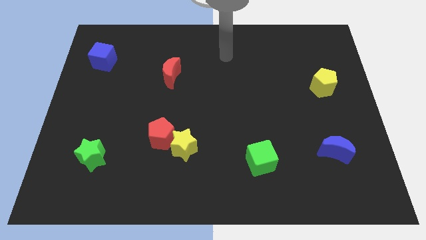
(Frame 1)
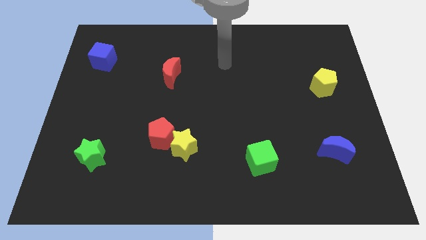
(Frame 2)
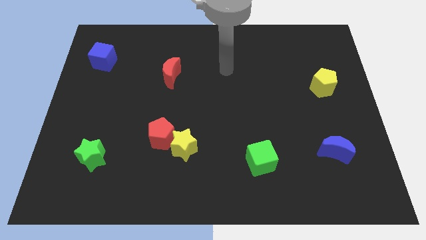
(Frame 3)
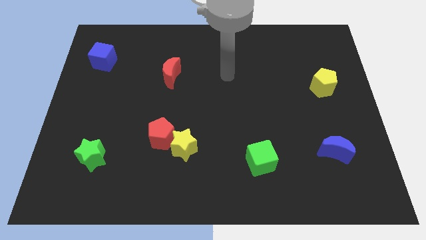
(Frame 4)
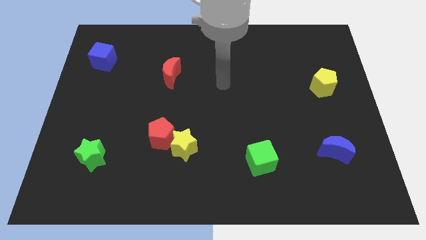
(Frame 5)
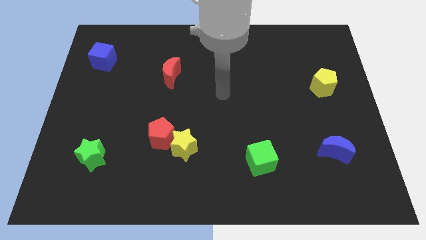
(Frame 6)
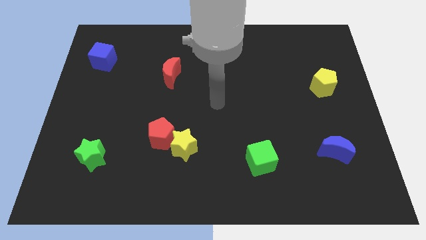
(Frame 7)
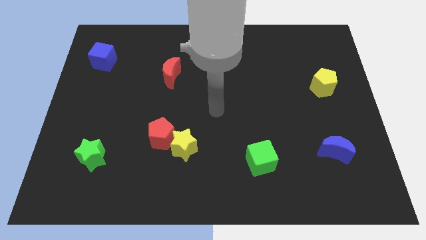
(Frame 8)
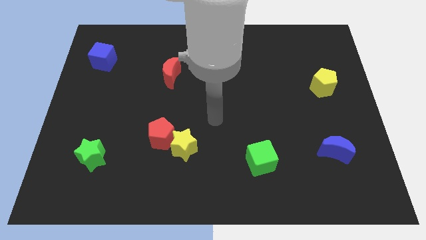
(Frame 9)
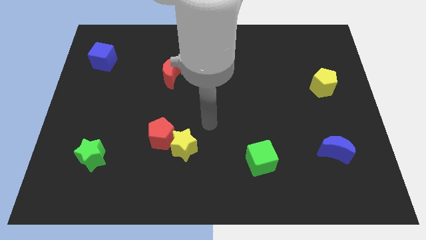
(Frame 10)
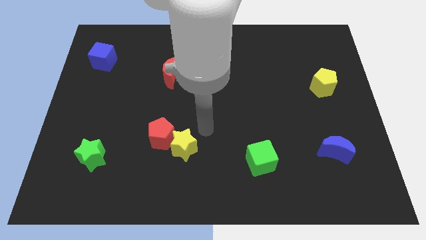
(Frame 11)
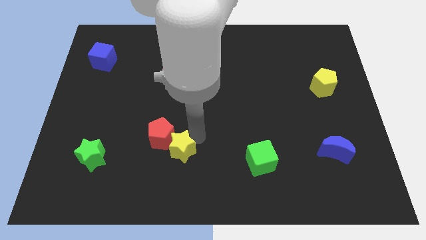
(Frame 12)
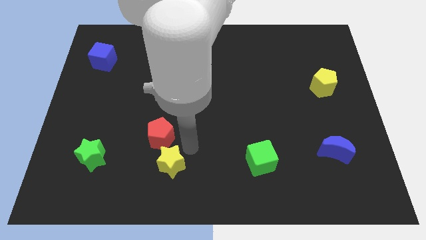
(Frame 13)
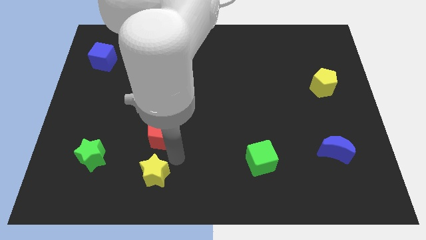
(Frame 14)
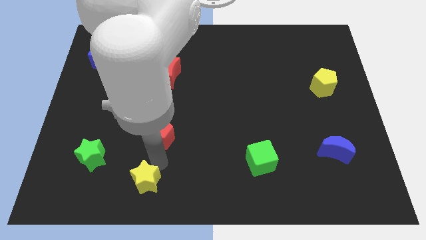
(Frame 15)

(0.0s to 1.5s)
move the red pentagon away from the yellow star

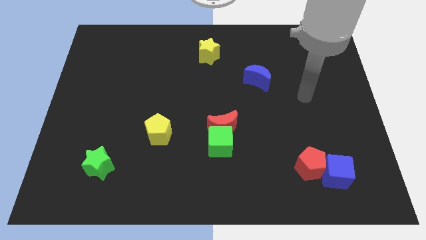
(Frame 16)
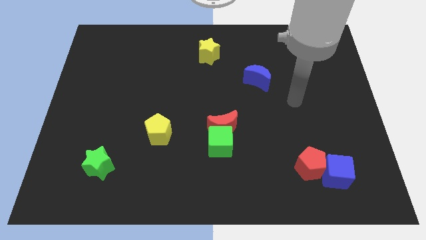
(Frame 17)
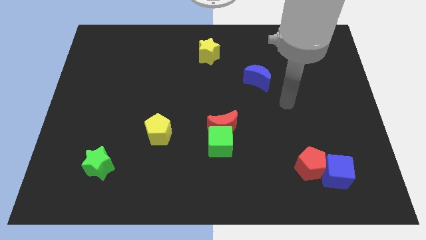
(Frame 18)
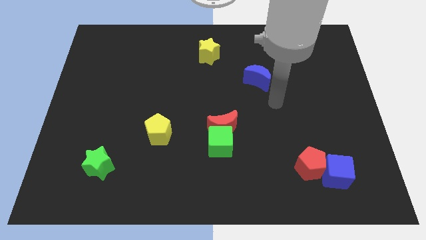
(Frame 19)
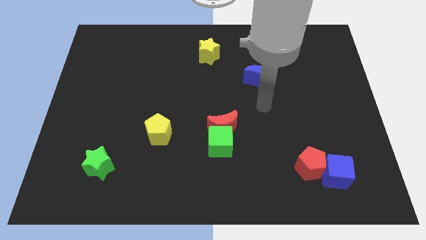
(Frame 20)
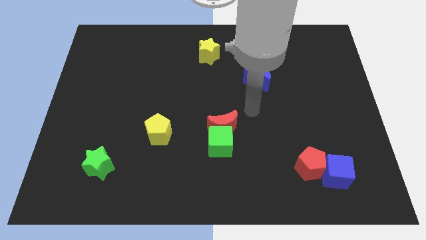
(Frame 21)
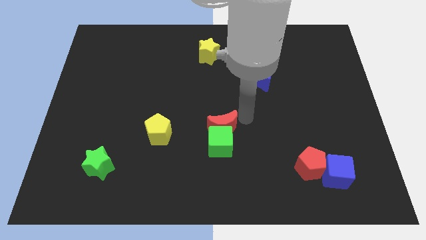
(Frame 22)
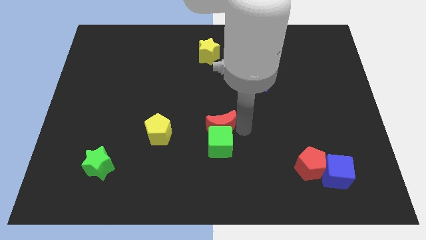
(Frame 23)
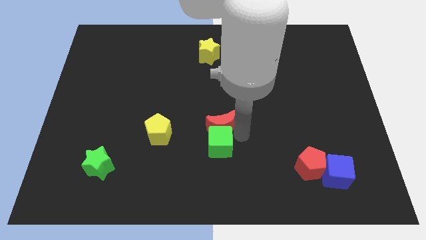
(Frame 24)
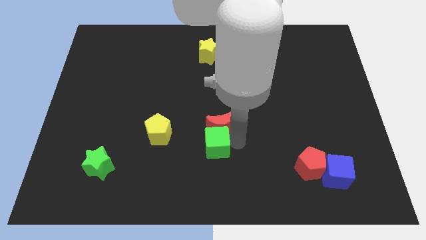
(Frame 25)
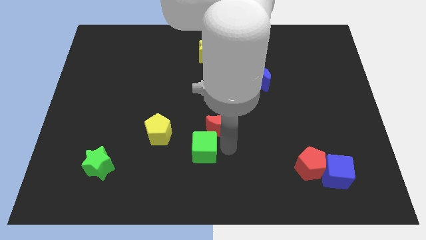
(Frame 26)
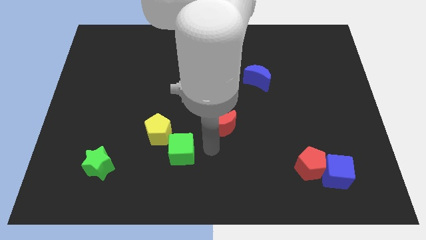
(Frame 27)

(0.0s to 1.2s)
pull the red moon apart from the green cube

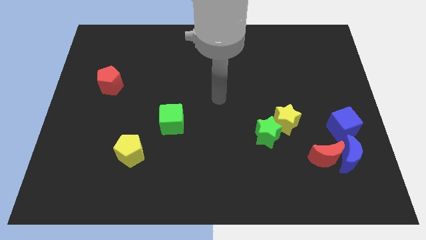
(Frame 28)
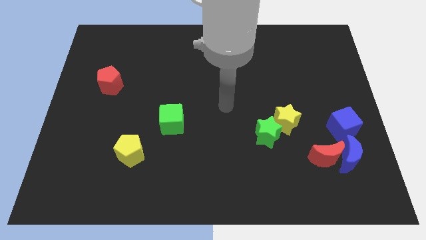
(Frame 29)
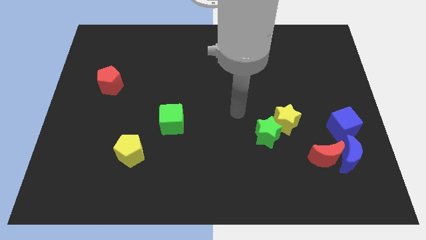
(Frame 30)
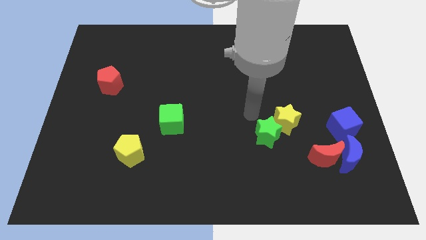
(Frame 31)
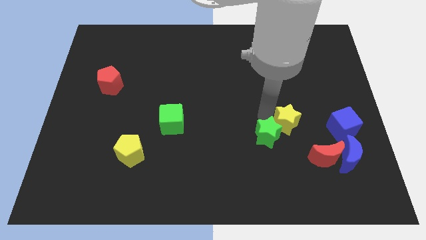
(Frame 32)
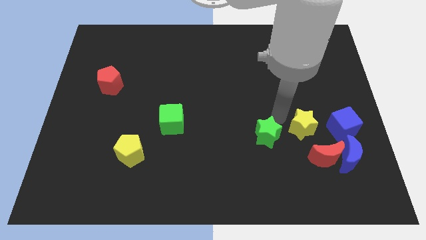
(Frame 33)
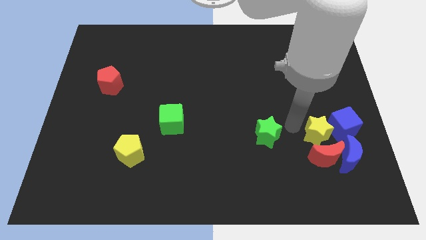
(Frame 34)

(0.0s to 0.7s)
move the green star away from the yellow star

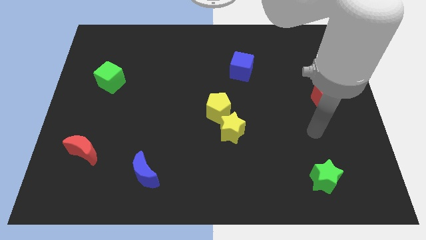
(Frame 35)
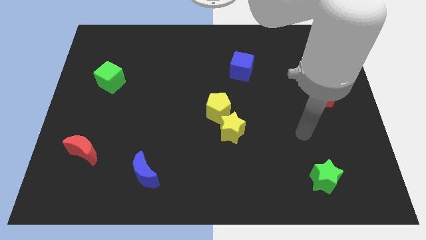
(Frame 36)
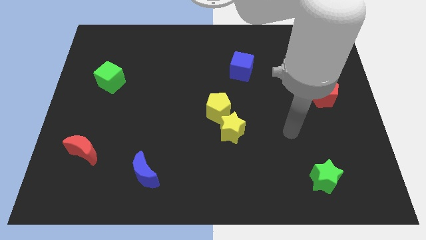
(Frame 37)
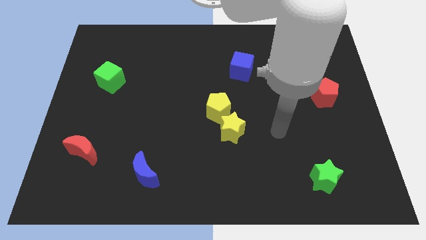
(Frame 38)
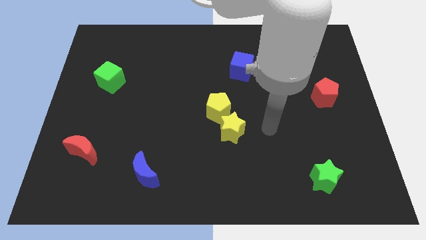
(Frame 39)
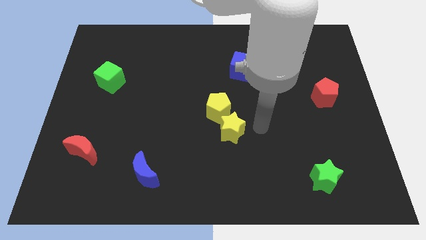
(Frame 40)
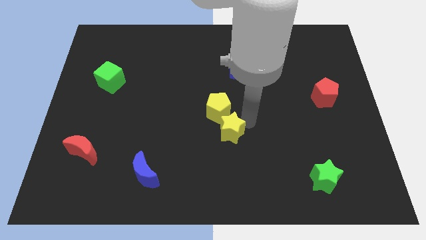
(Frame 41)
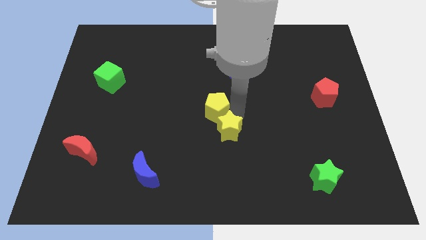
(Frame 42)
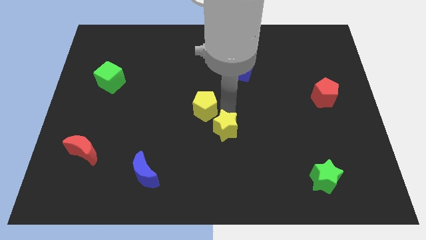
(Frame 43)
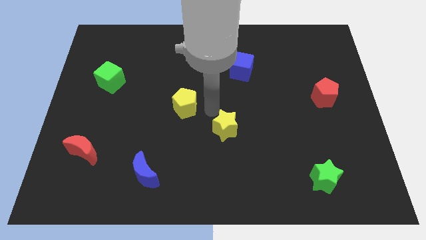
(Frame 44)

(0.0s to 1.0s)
move the yellow star away from the yellow pentagon

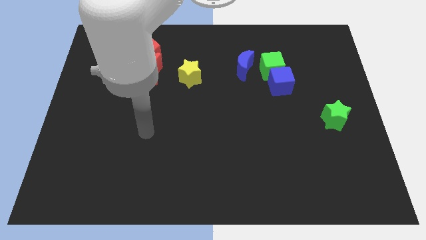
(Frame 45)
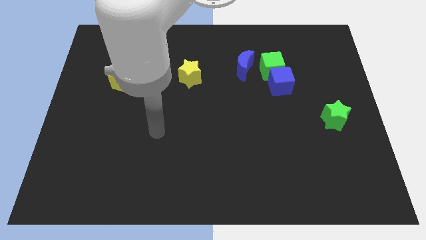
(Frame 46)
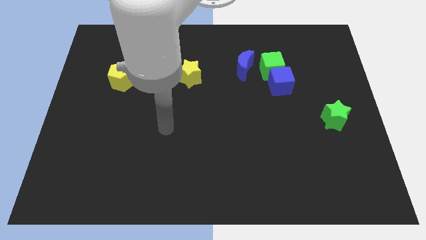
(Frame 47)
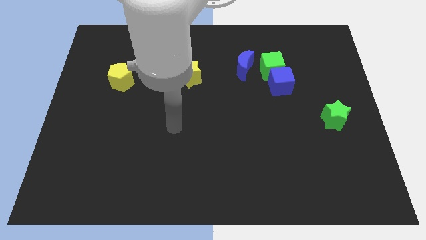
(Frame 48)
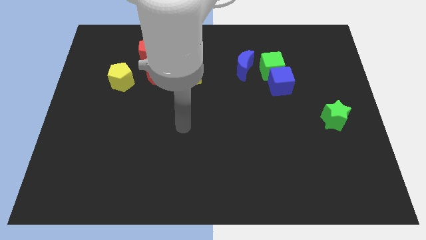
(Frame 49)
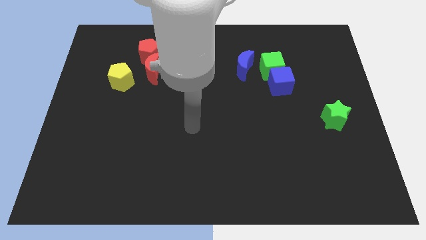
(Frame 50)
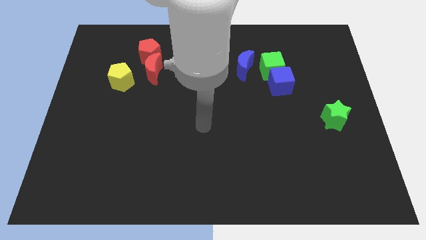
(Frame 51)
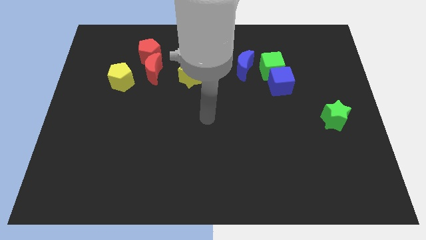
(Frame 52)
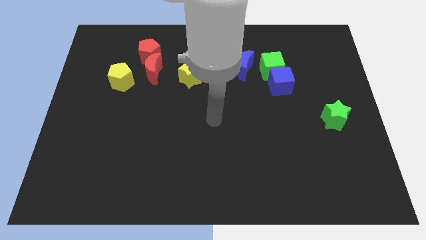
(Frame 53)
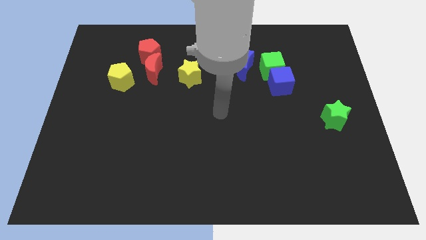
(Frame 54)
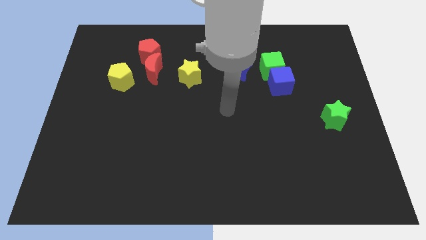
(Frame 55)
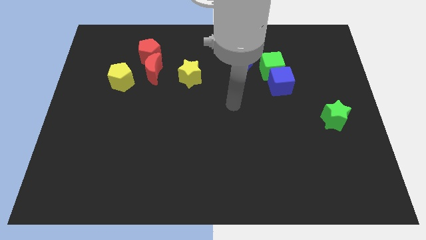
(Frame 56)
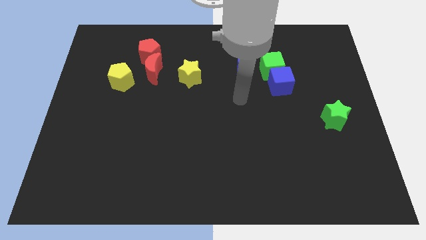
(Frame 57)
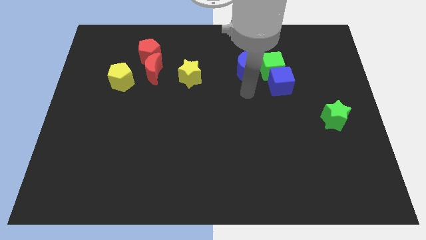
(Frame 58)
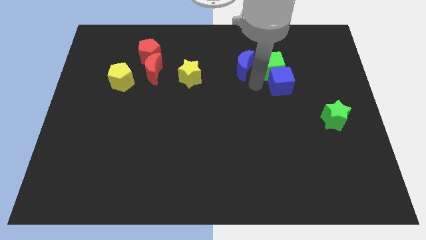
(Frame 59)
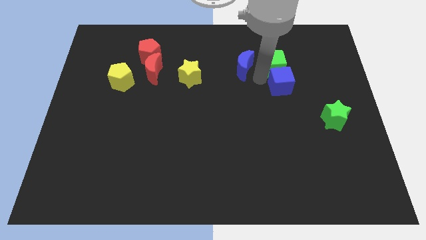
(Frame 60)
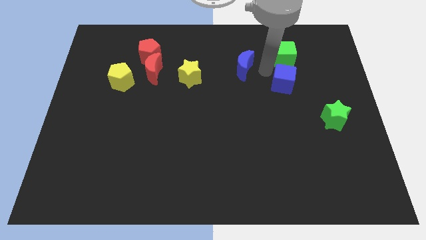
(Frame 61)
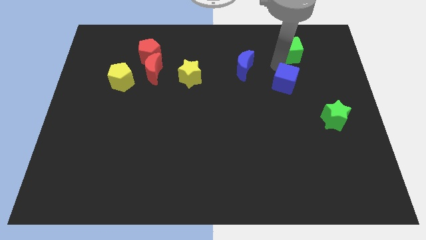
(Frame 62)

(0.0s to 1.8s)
separate the blue cube from the green cube

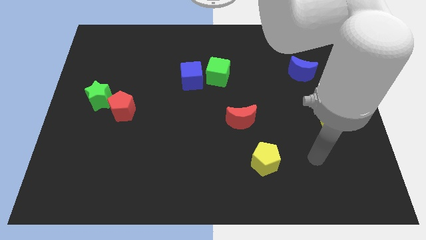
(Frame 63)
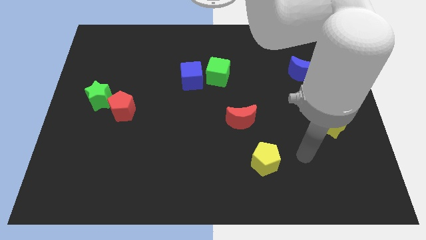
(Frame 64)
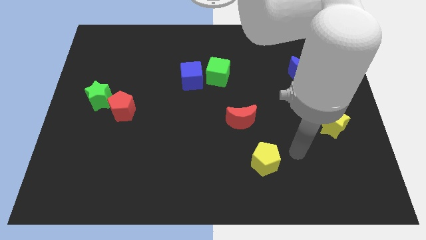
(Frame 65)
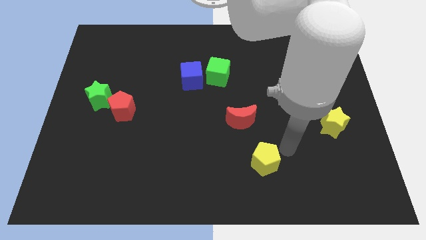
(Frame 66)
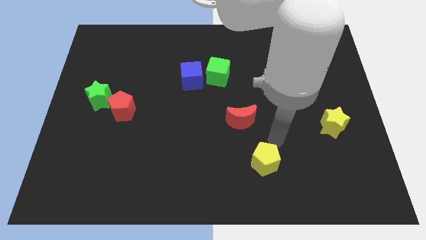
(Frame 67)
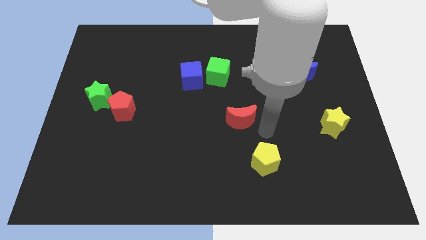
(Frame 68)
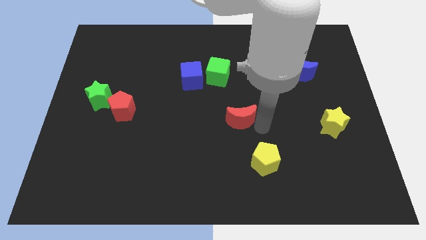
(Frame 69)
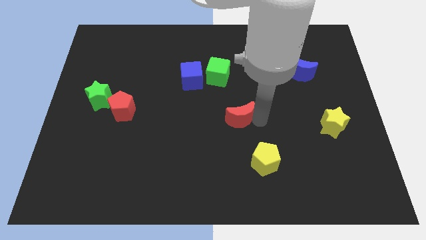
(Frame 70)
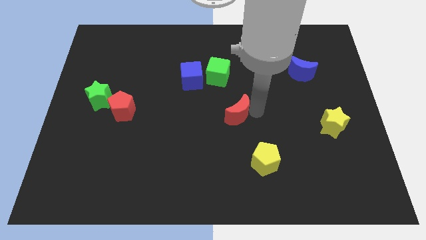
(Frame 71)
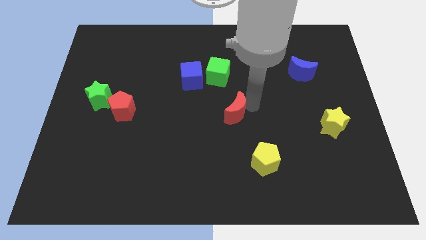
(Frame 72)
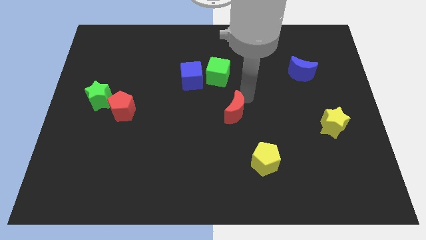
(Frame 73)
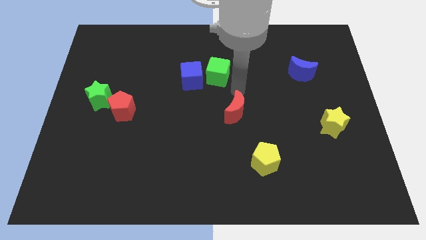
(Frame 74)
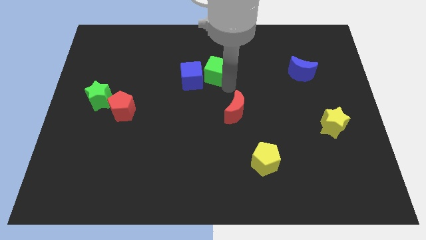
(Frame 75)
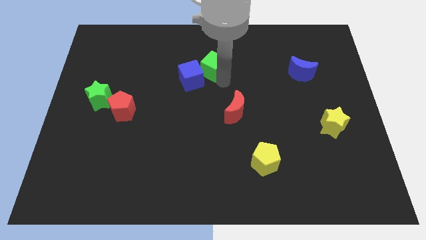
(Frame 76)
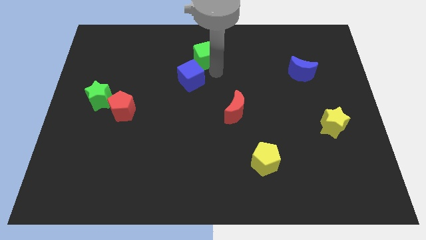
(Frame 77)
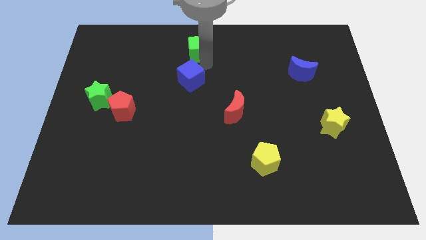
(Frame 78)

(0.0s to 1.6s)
move the blue cube away from the green cube

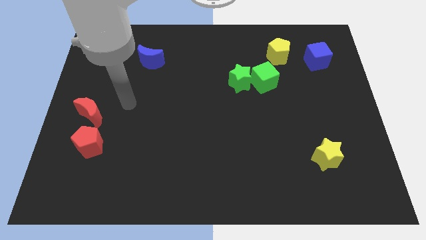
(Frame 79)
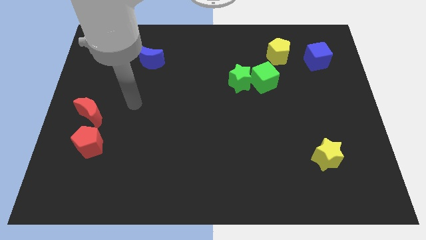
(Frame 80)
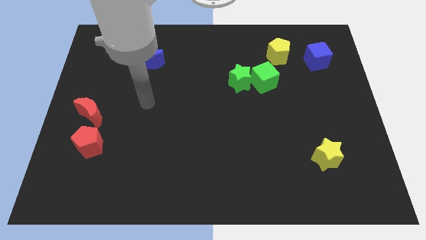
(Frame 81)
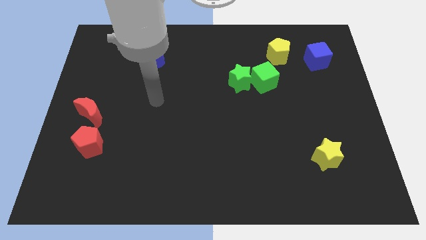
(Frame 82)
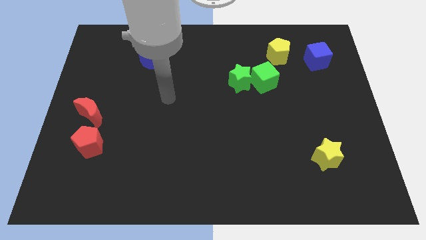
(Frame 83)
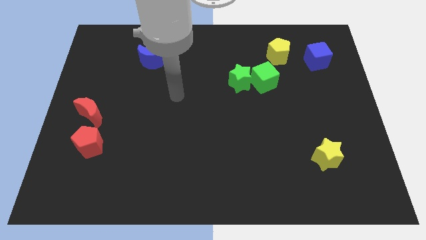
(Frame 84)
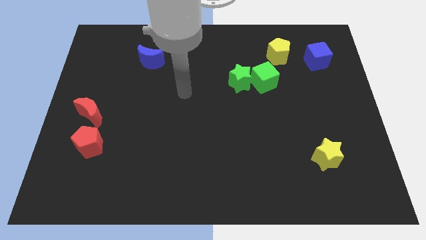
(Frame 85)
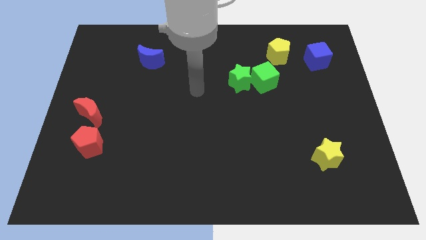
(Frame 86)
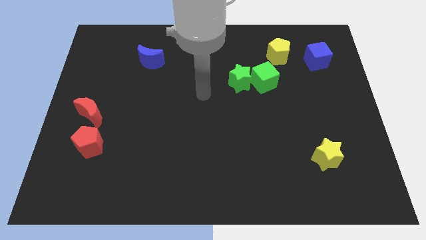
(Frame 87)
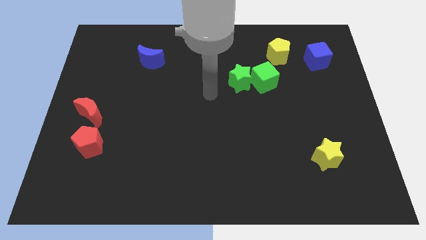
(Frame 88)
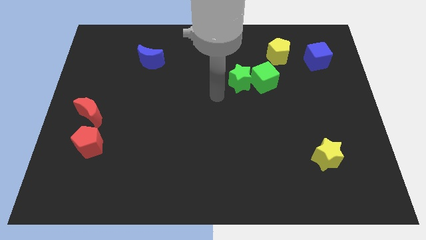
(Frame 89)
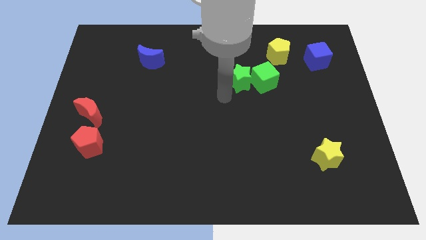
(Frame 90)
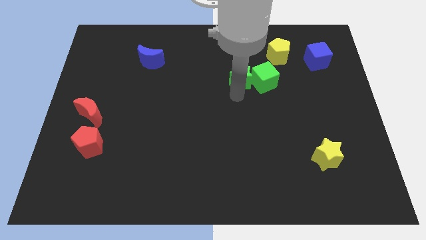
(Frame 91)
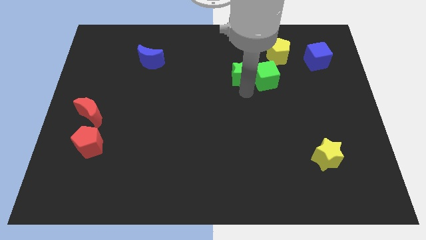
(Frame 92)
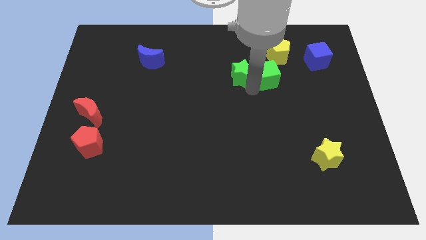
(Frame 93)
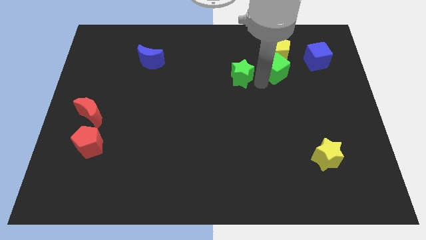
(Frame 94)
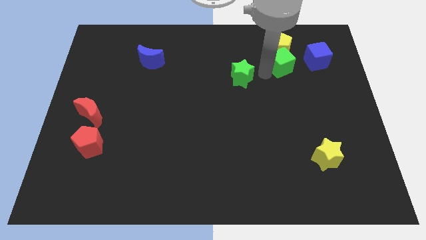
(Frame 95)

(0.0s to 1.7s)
separate the green star from the green cube
